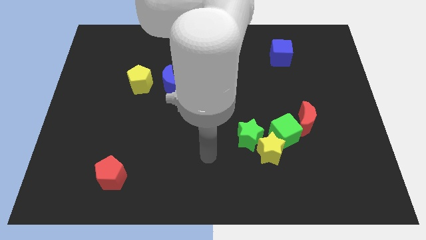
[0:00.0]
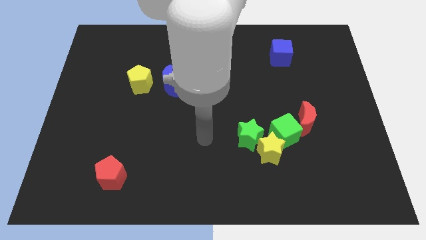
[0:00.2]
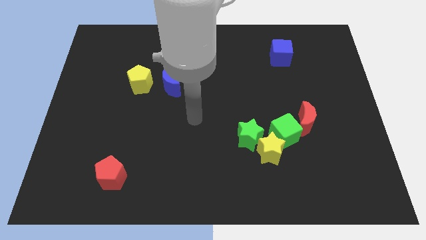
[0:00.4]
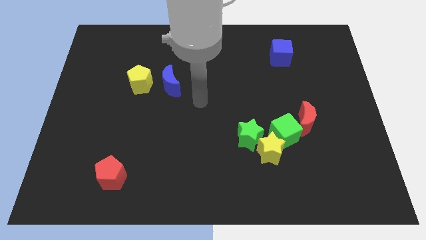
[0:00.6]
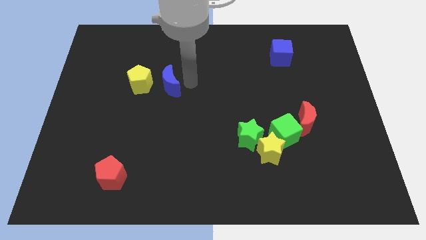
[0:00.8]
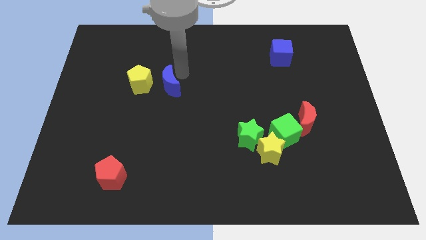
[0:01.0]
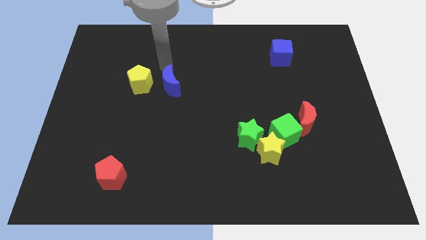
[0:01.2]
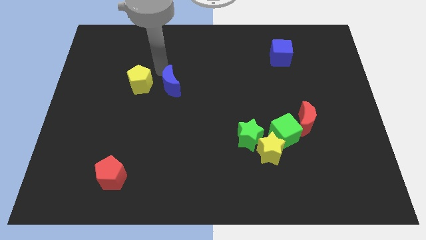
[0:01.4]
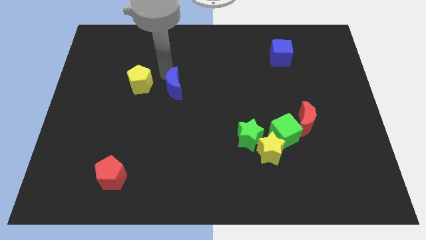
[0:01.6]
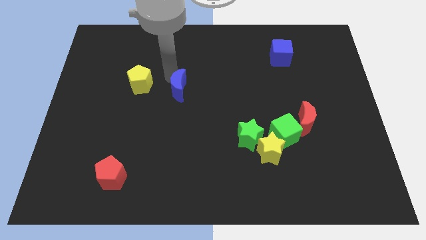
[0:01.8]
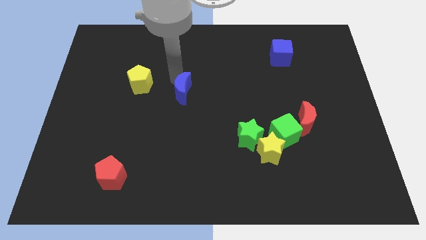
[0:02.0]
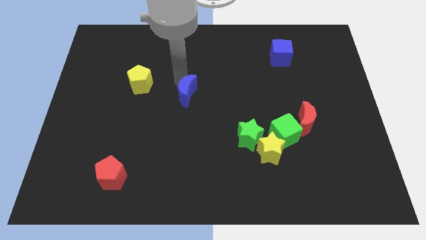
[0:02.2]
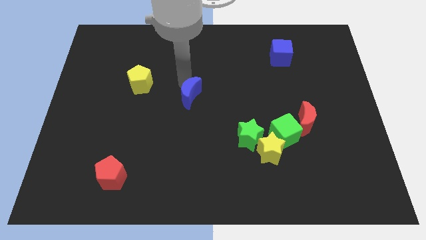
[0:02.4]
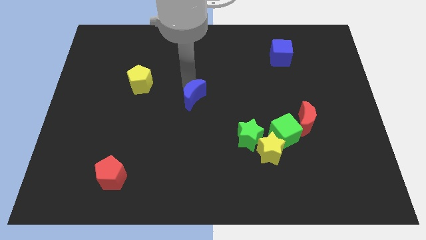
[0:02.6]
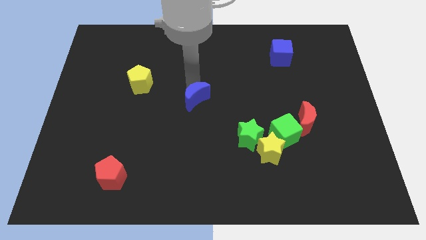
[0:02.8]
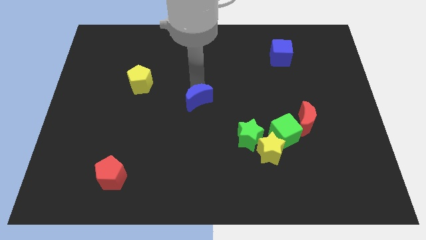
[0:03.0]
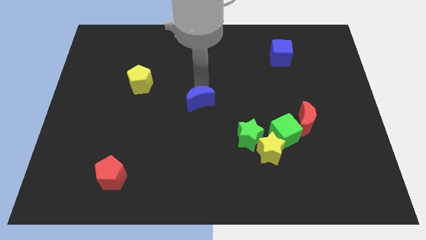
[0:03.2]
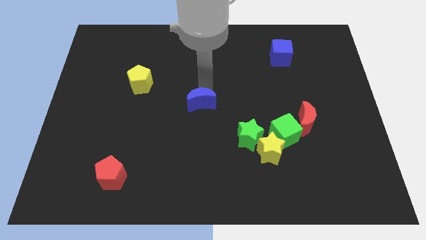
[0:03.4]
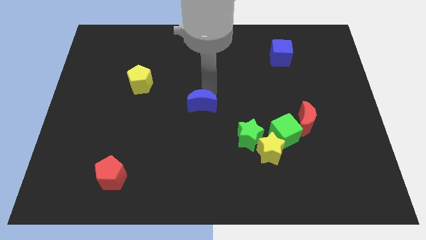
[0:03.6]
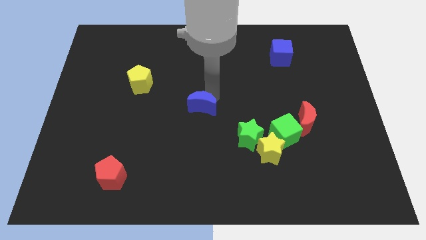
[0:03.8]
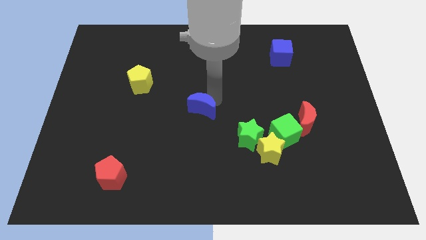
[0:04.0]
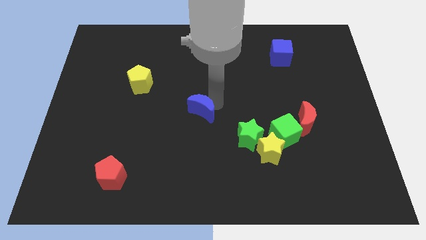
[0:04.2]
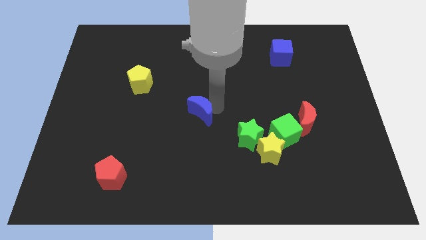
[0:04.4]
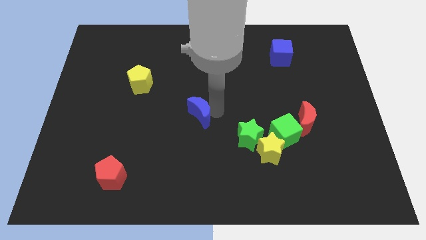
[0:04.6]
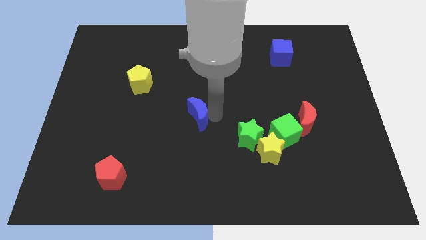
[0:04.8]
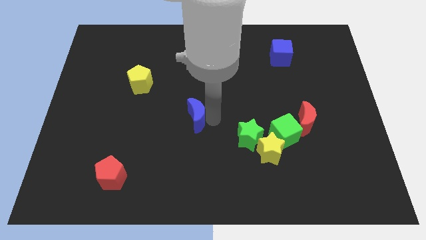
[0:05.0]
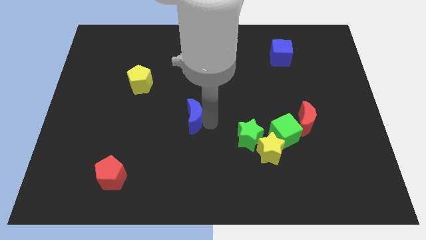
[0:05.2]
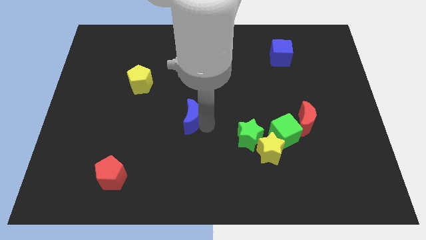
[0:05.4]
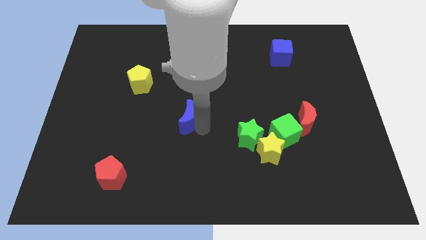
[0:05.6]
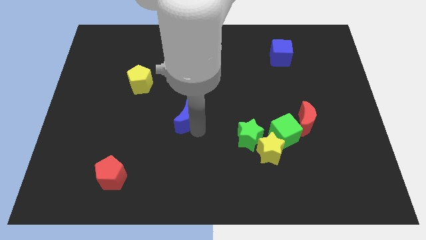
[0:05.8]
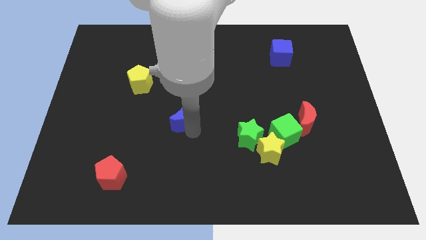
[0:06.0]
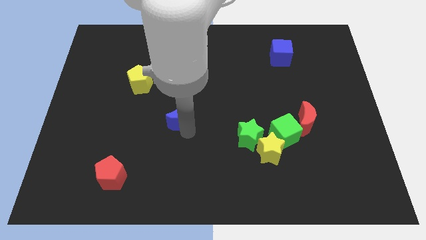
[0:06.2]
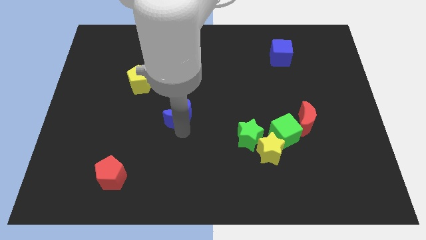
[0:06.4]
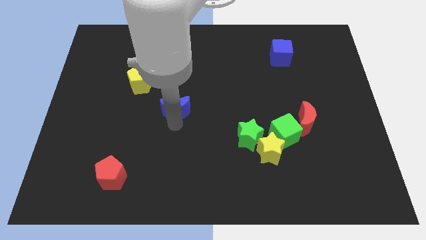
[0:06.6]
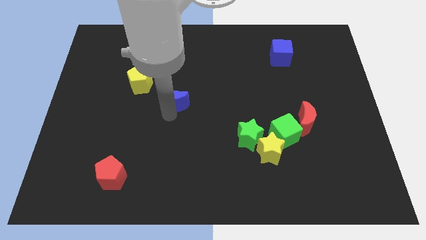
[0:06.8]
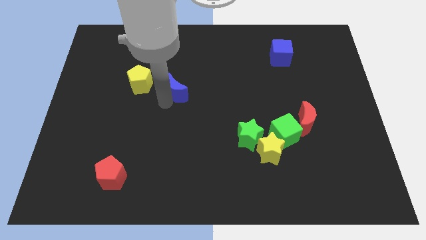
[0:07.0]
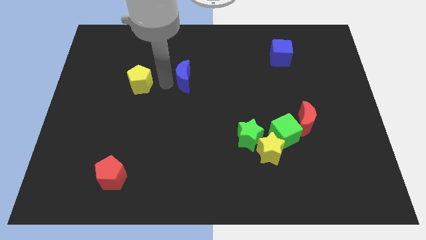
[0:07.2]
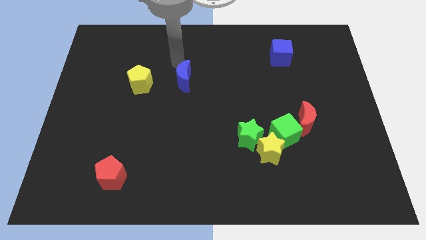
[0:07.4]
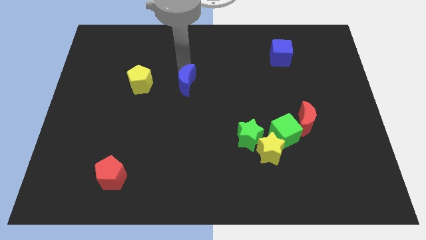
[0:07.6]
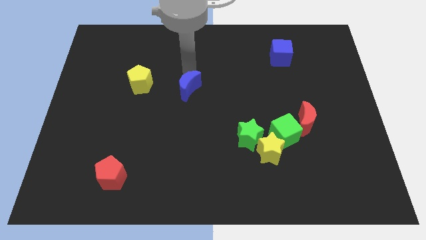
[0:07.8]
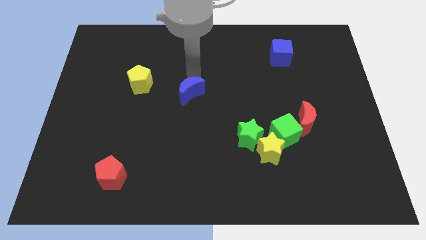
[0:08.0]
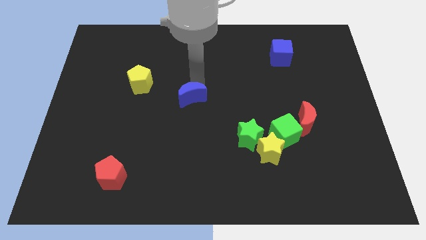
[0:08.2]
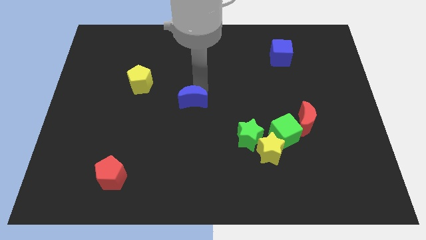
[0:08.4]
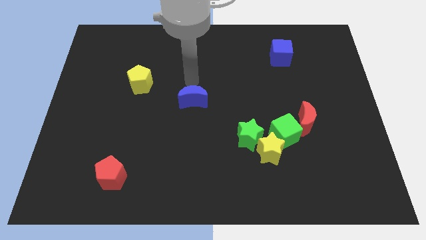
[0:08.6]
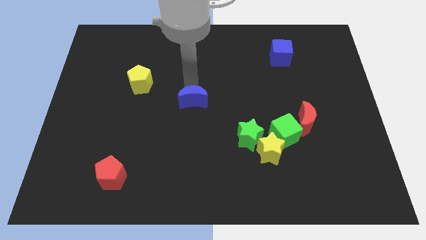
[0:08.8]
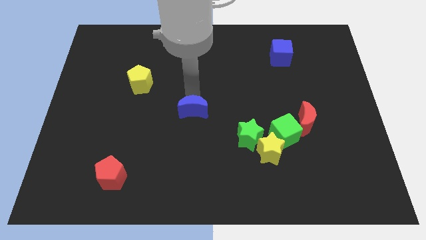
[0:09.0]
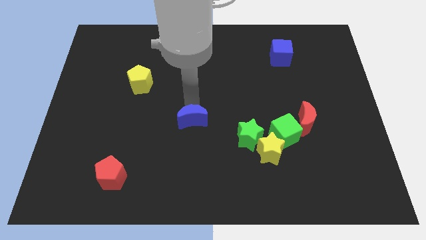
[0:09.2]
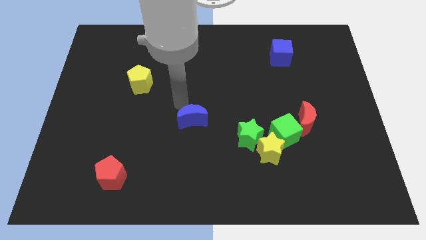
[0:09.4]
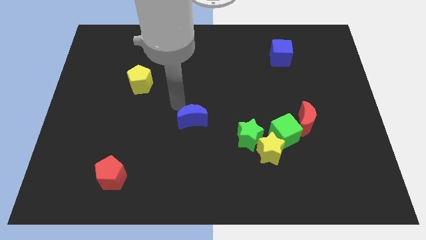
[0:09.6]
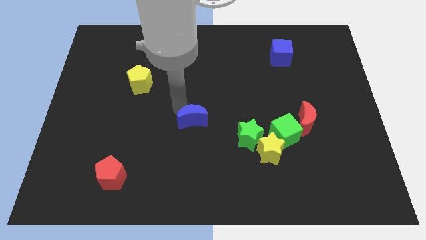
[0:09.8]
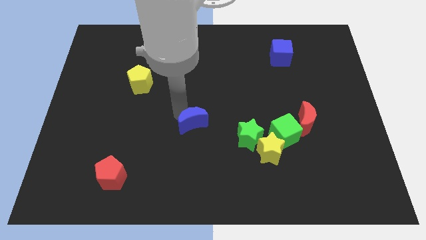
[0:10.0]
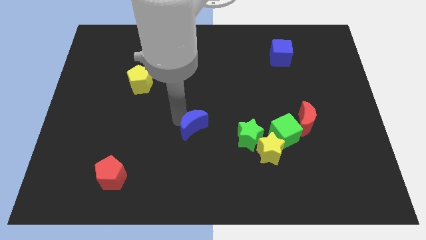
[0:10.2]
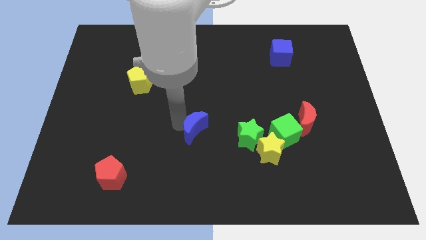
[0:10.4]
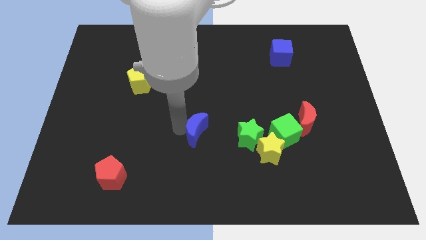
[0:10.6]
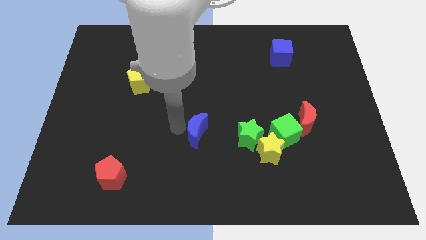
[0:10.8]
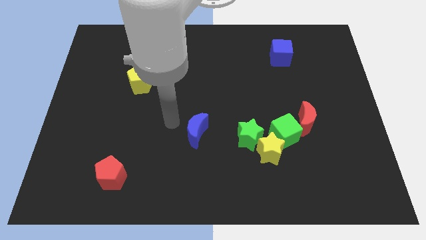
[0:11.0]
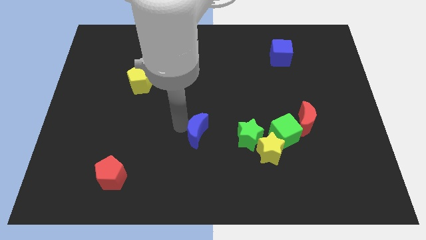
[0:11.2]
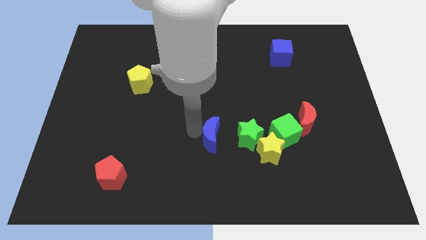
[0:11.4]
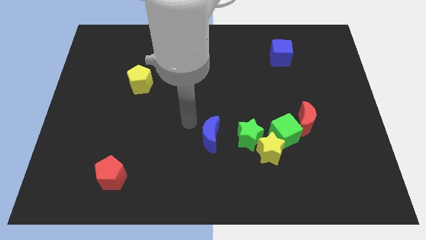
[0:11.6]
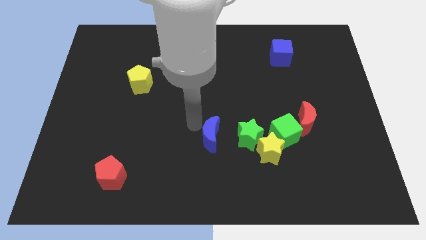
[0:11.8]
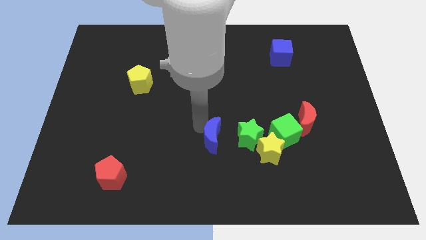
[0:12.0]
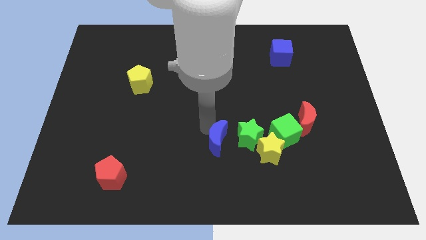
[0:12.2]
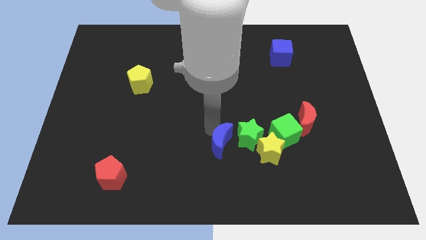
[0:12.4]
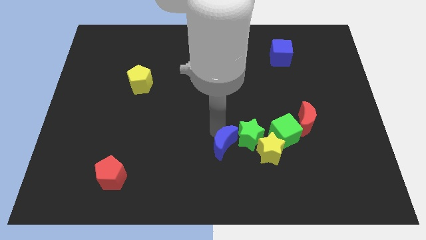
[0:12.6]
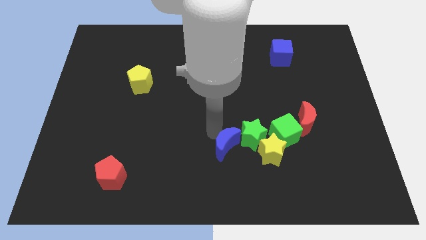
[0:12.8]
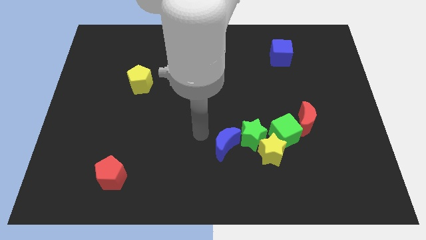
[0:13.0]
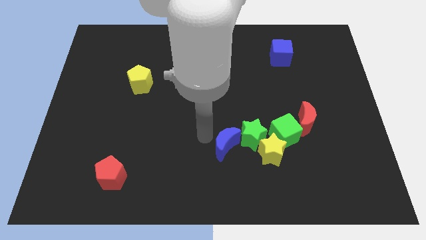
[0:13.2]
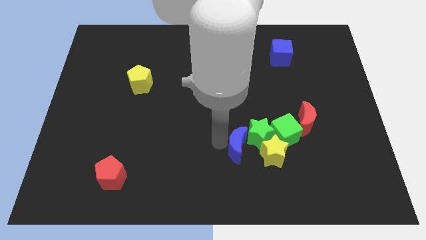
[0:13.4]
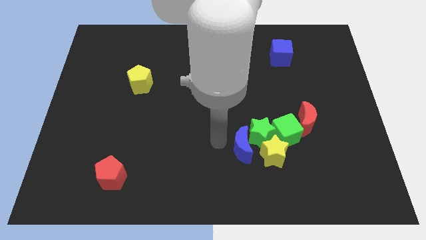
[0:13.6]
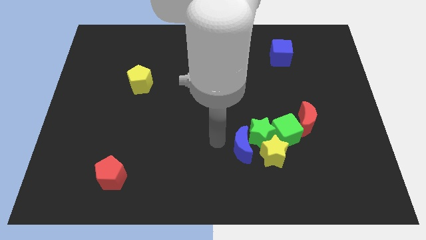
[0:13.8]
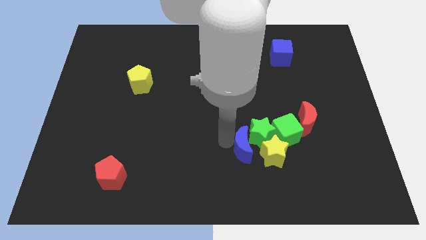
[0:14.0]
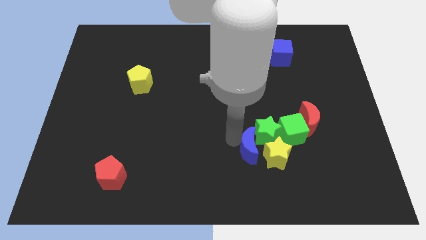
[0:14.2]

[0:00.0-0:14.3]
put the blue moon close to the yellow star

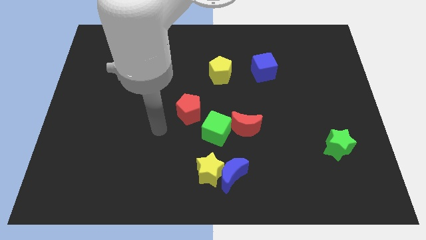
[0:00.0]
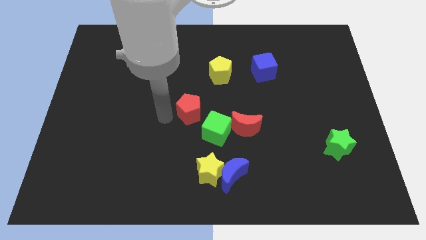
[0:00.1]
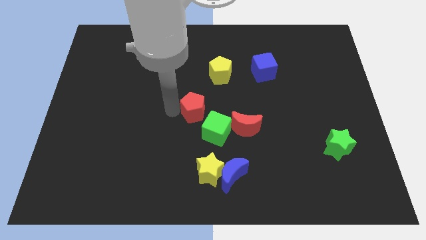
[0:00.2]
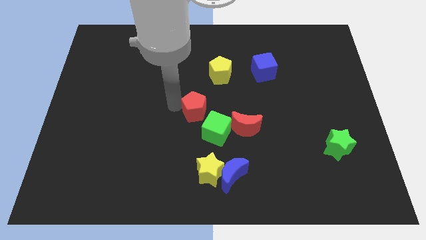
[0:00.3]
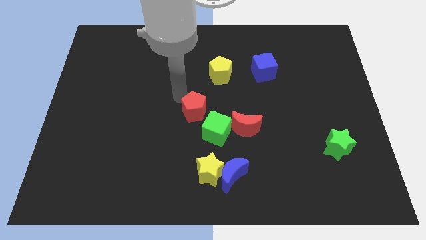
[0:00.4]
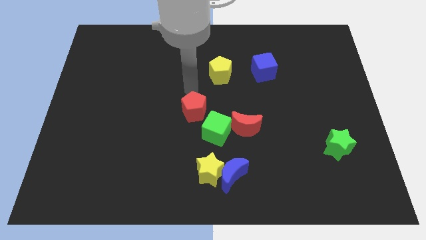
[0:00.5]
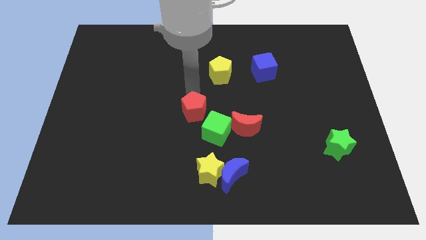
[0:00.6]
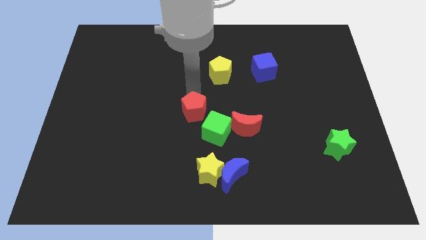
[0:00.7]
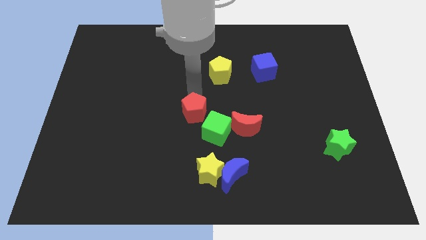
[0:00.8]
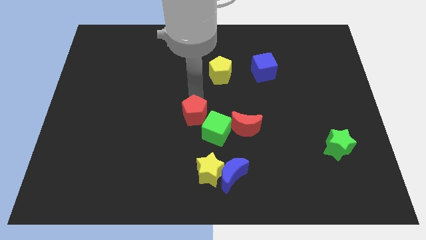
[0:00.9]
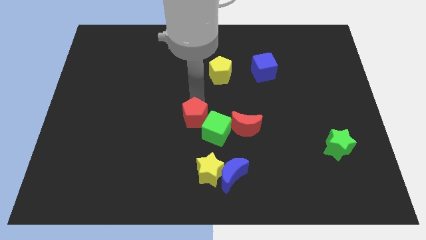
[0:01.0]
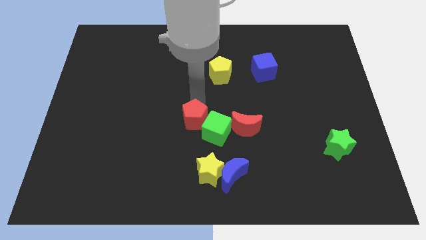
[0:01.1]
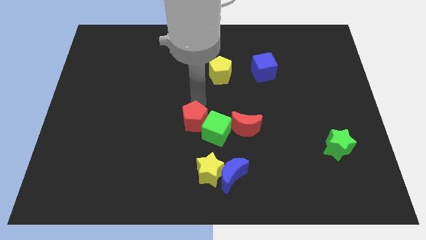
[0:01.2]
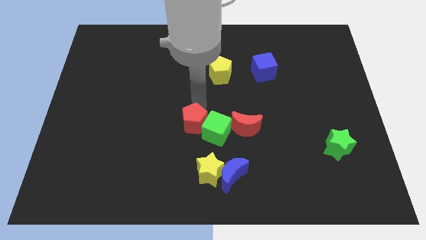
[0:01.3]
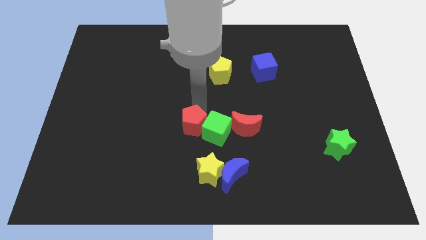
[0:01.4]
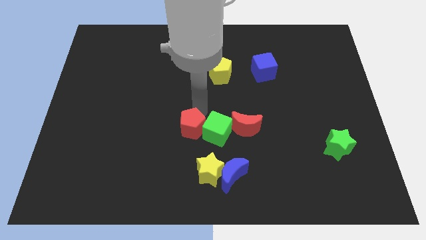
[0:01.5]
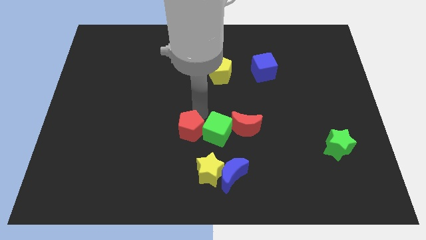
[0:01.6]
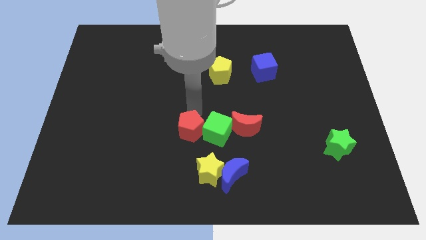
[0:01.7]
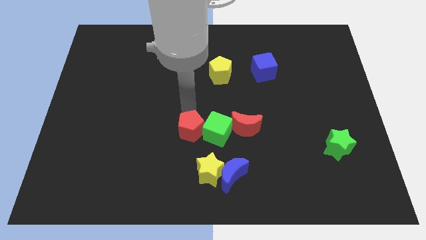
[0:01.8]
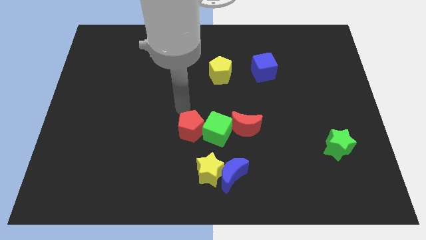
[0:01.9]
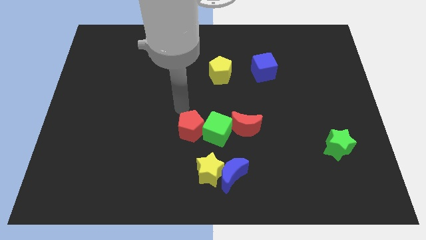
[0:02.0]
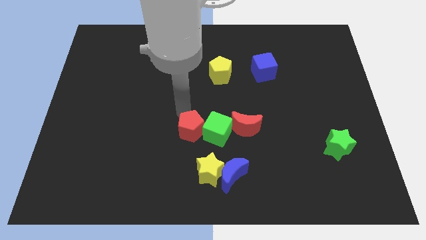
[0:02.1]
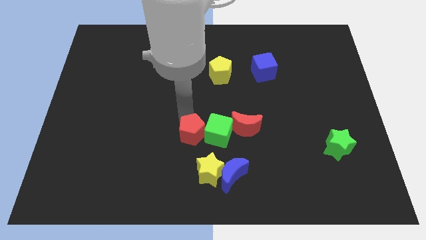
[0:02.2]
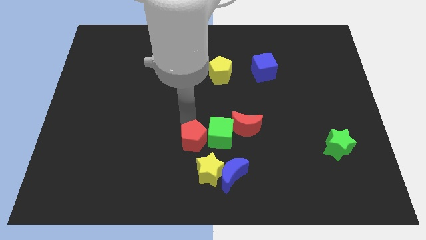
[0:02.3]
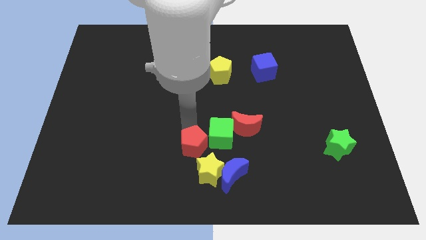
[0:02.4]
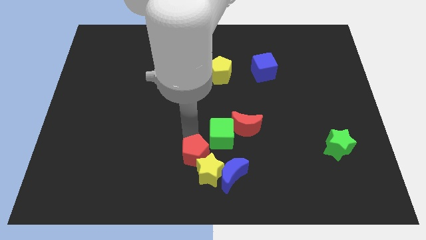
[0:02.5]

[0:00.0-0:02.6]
push the red pentagon close to the yellow star
